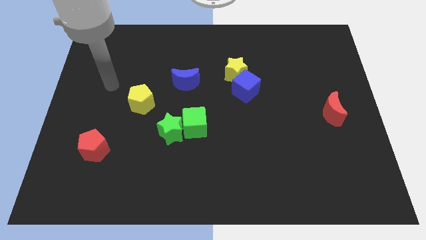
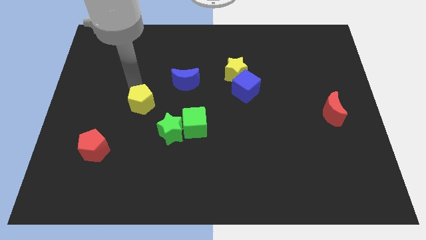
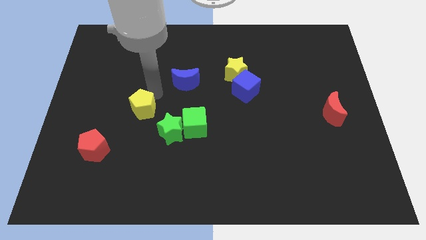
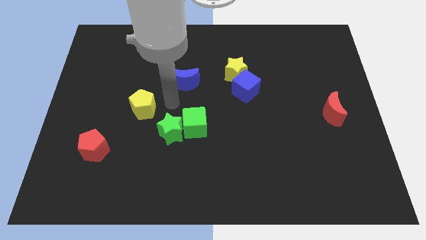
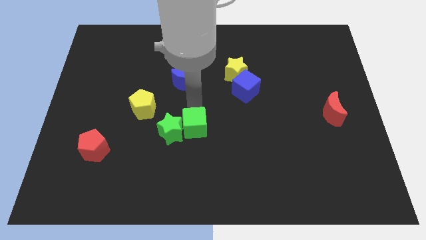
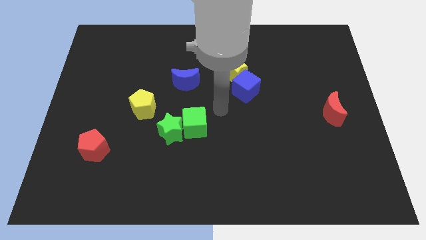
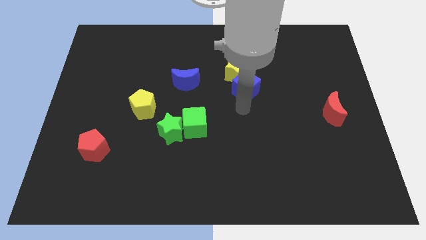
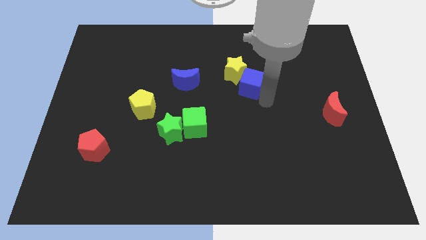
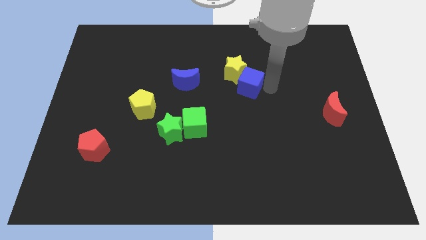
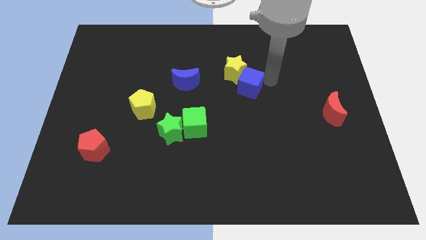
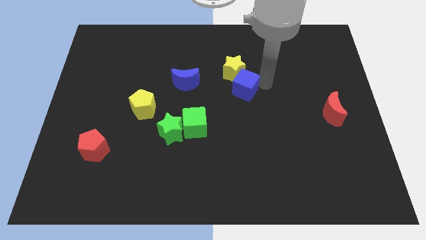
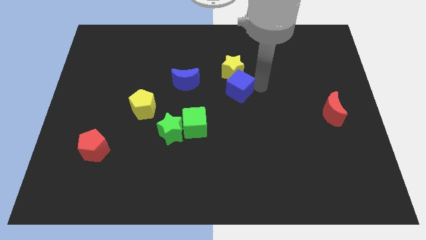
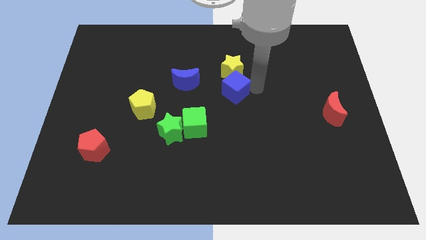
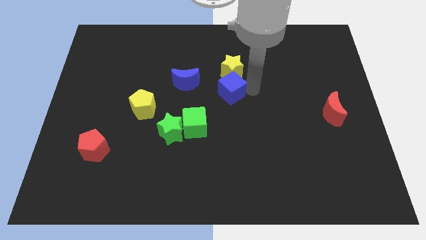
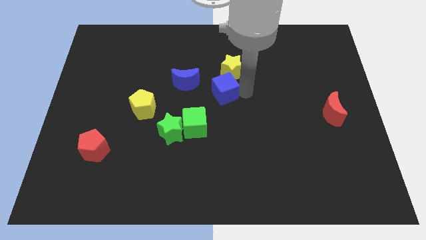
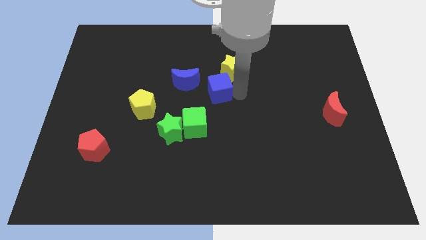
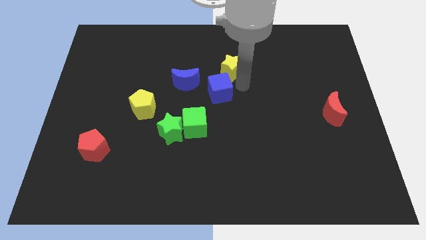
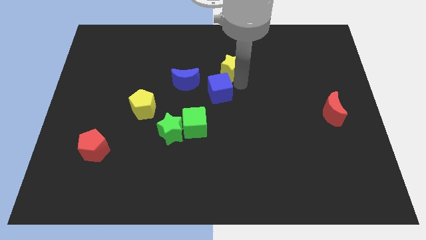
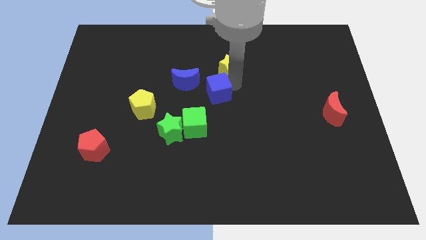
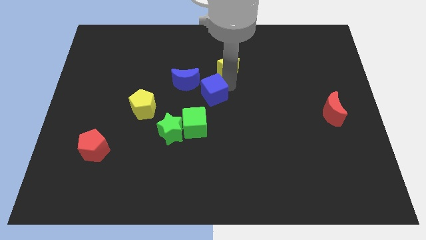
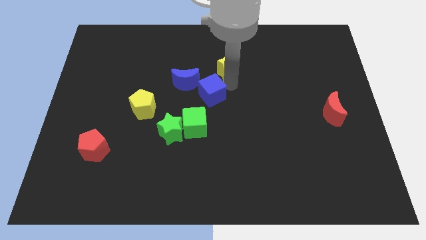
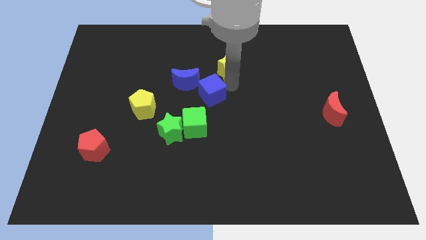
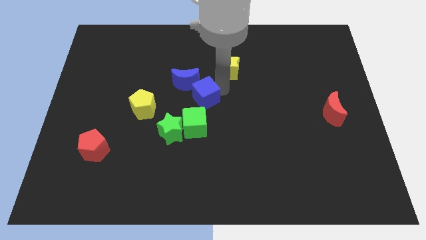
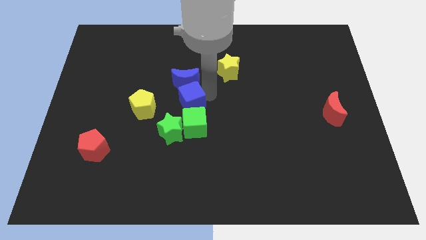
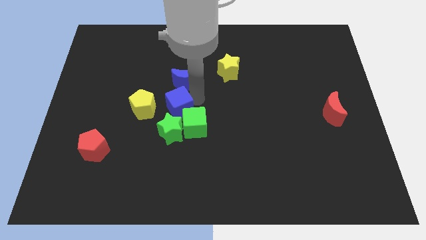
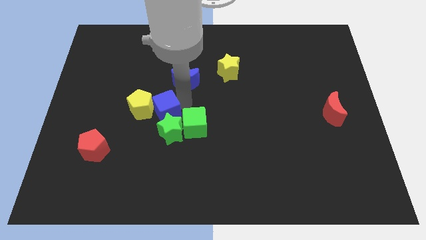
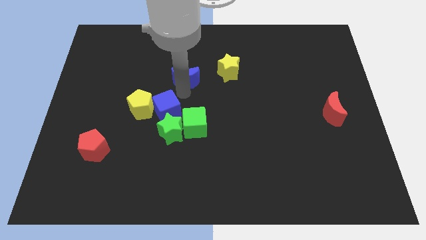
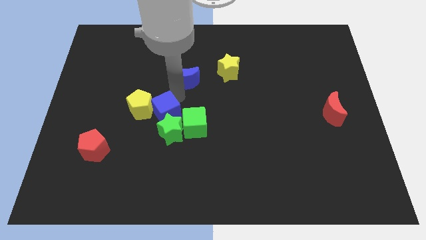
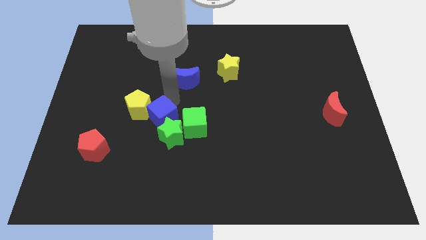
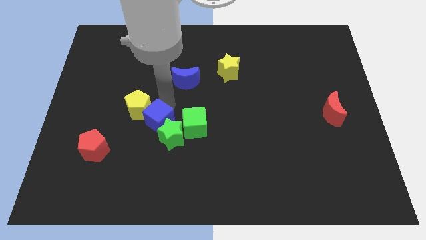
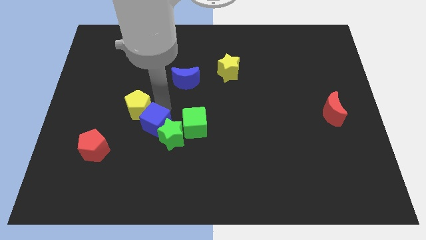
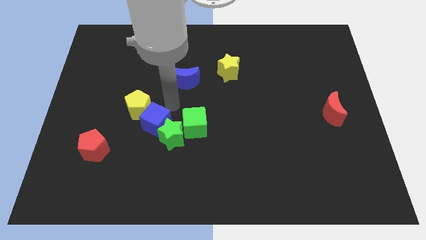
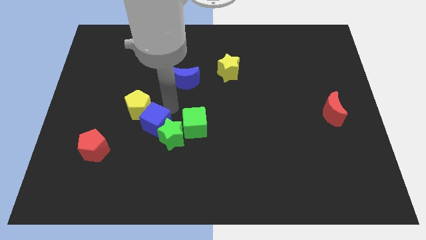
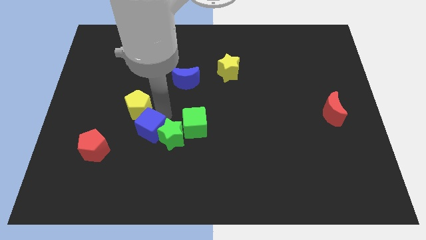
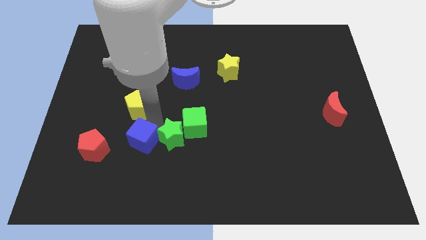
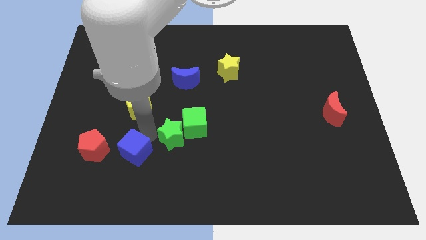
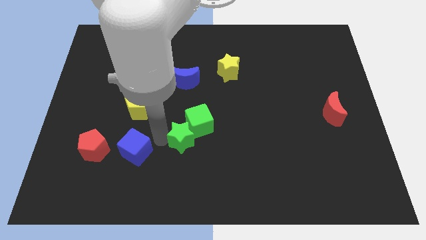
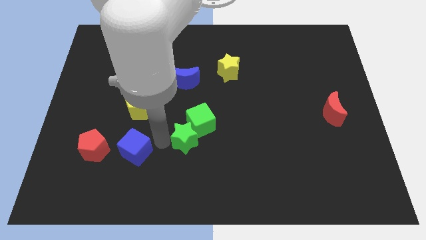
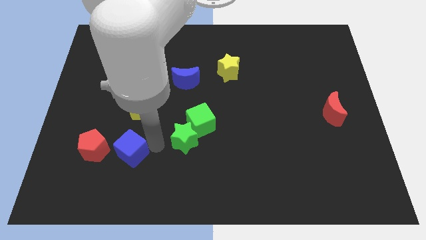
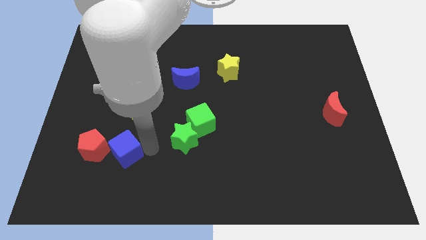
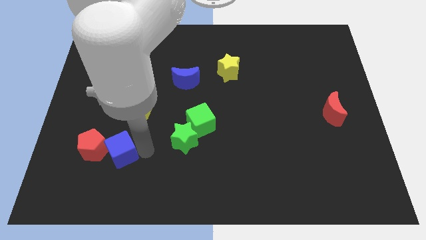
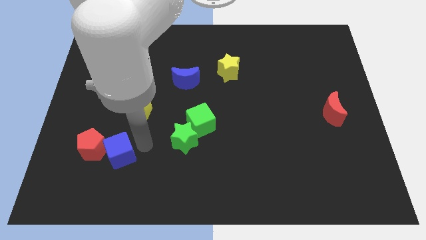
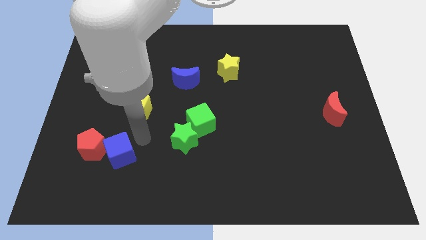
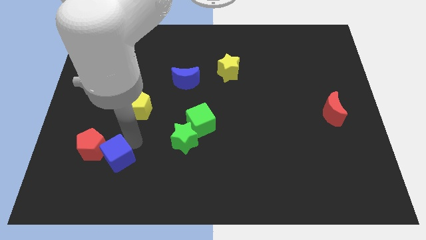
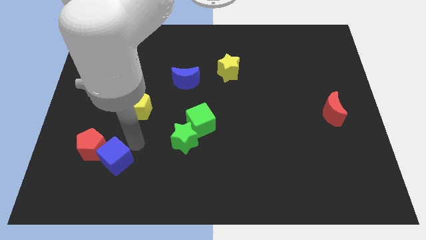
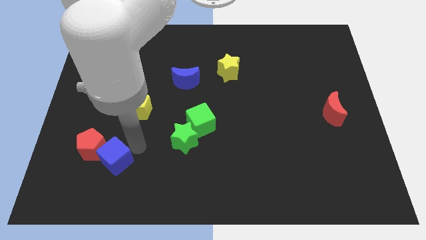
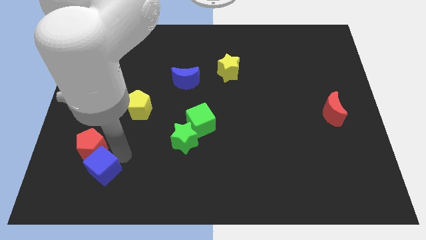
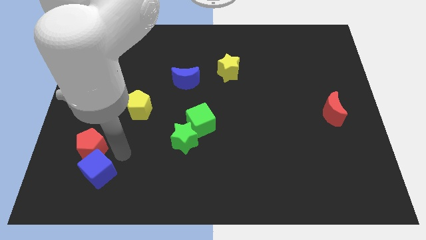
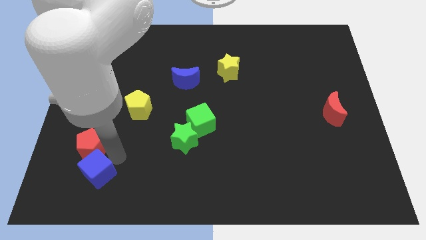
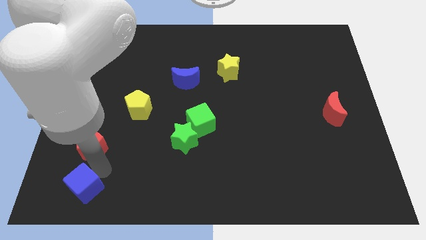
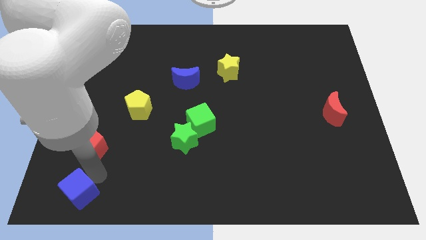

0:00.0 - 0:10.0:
push the blue cube to the bottom left of the board

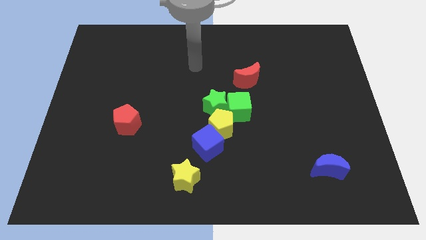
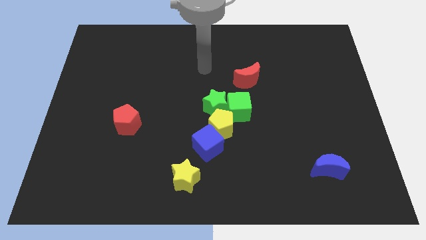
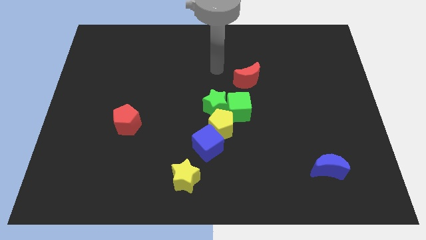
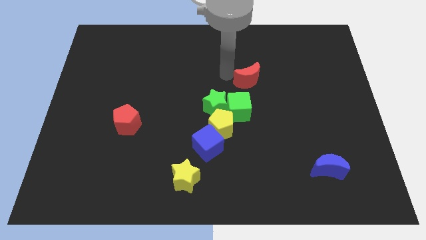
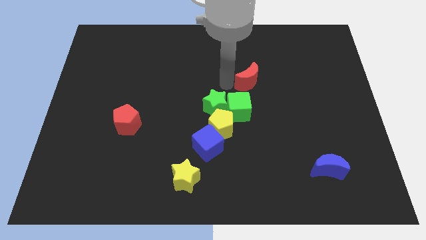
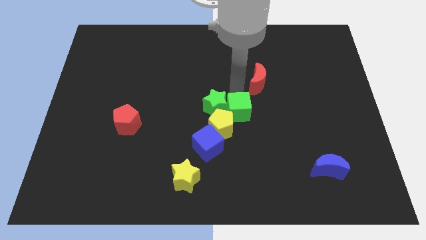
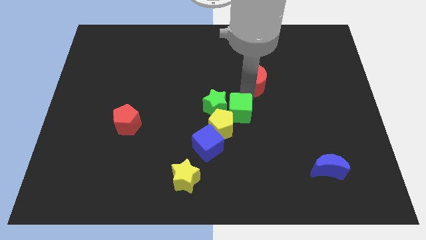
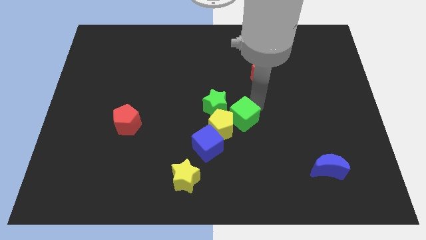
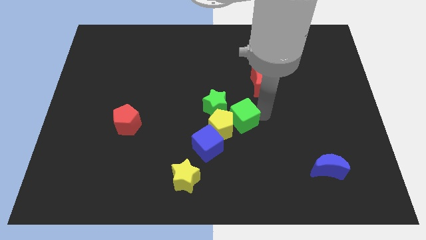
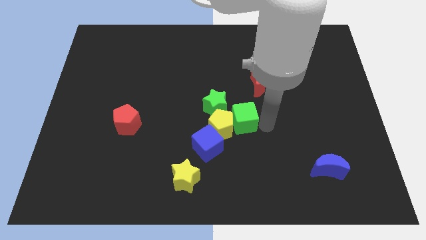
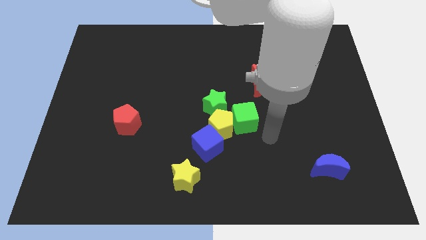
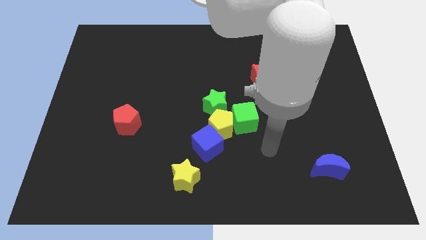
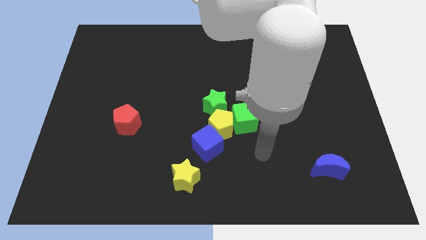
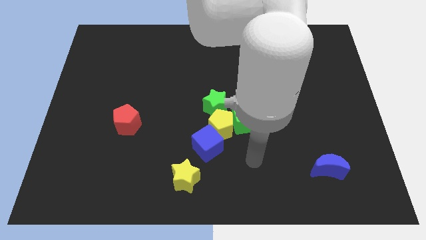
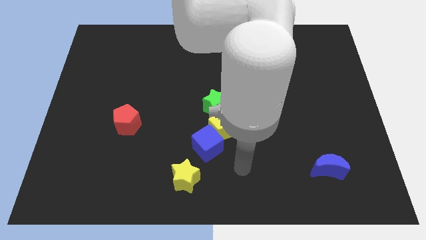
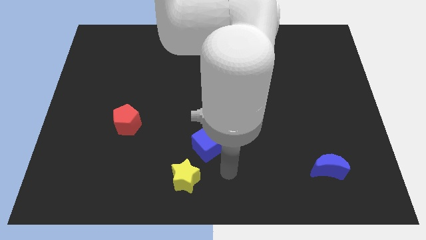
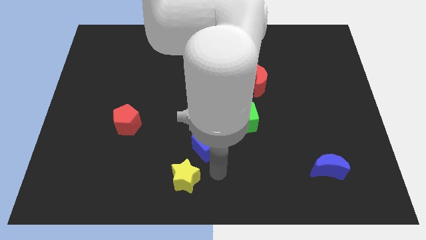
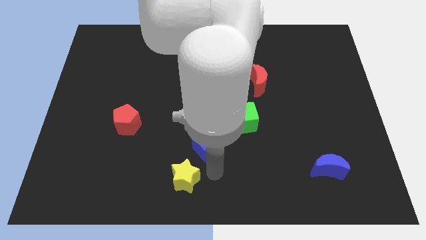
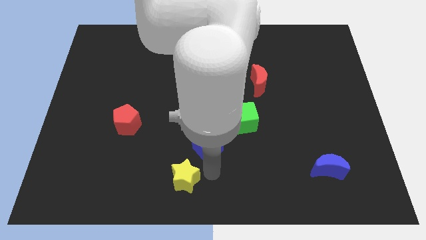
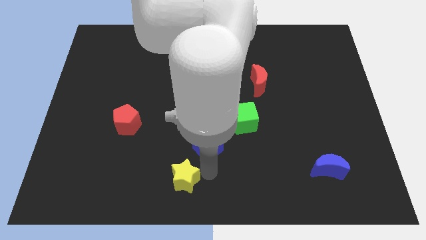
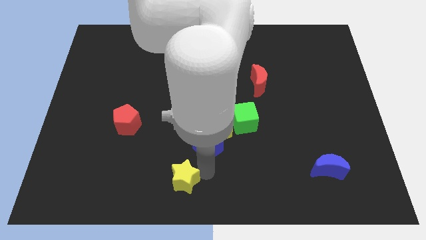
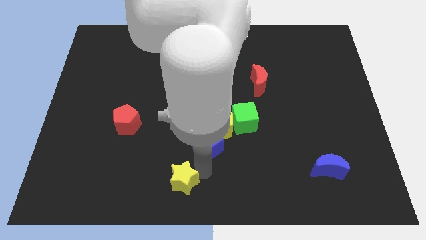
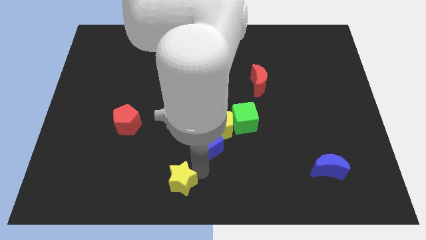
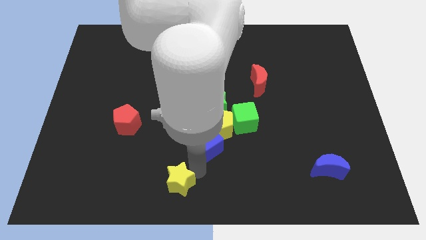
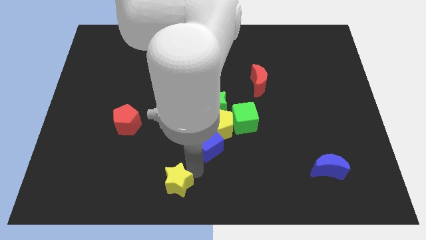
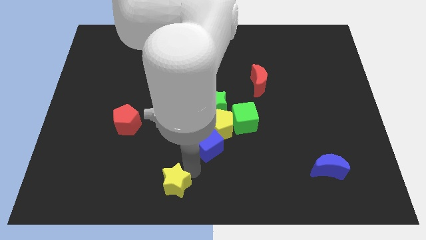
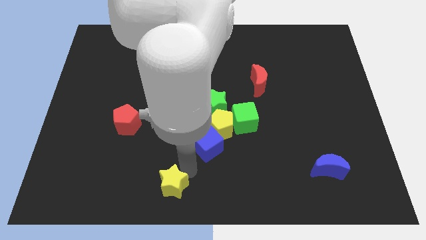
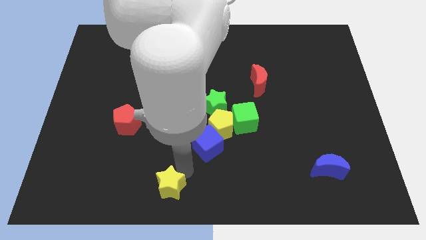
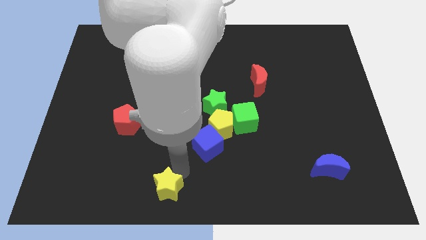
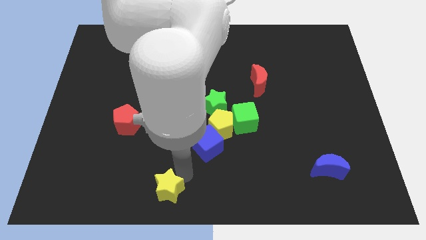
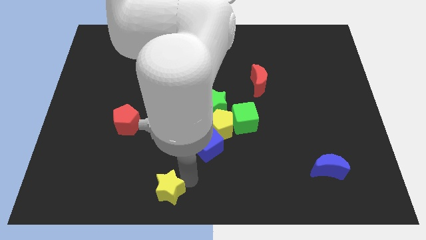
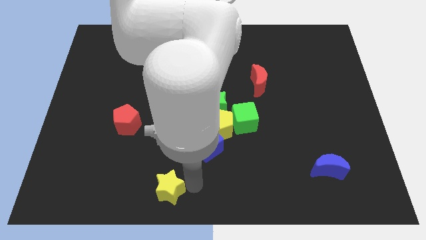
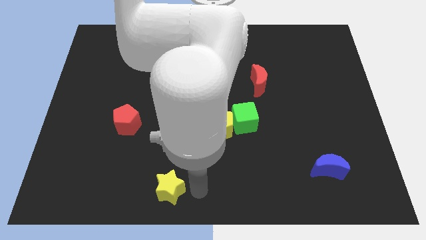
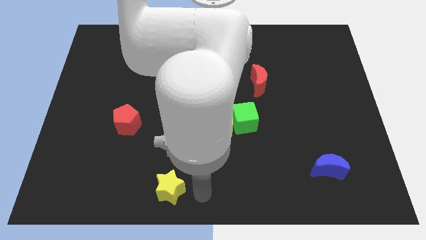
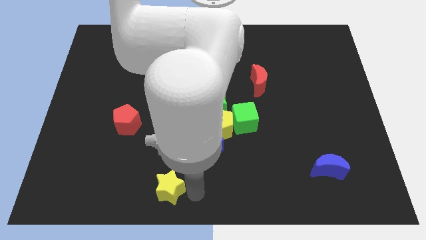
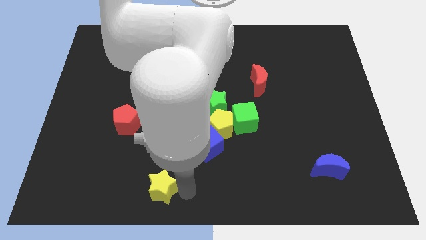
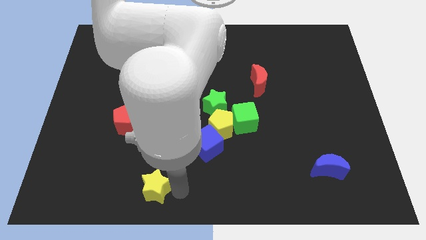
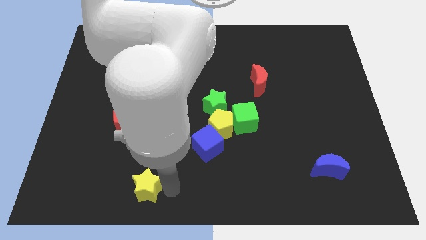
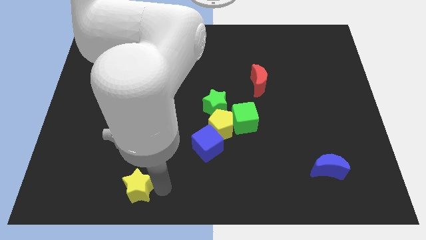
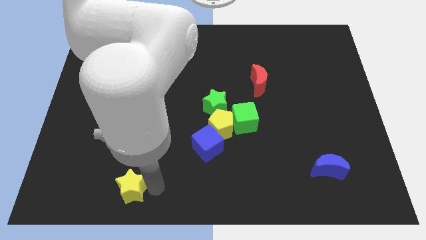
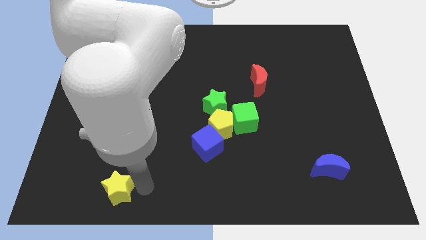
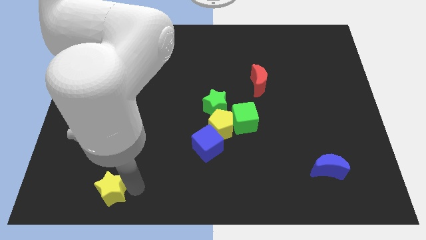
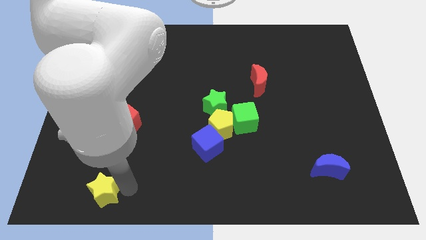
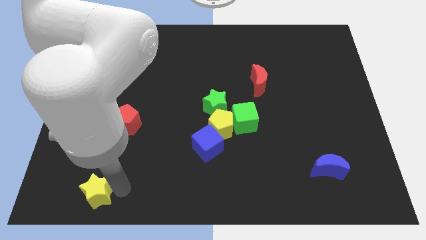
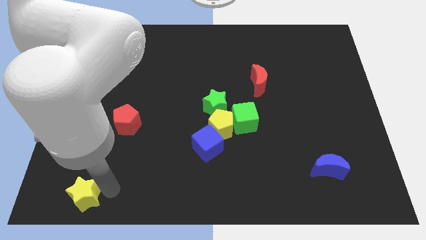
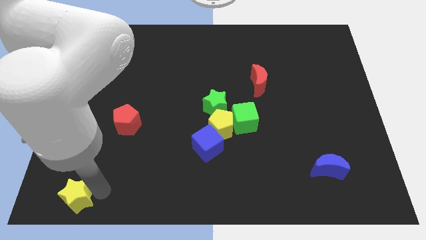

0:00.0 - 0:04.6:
slide the yellow star to the bottom left
